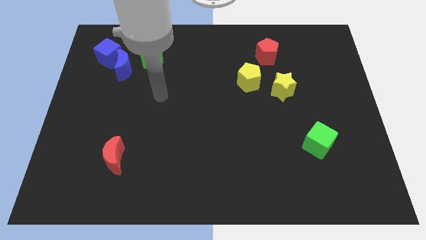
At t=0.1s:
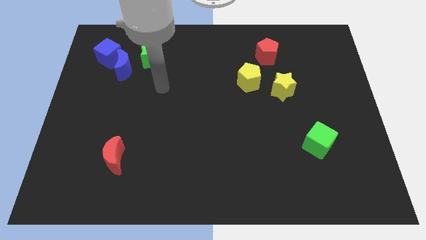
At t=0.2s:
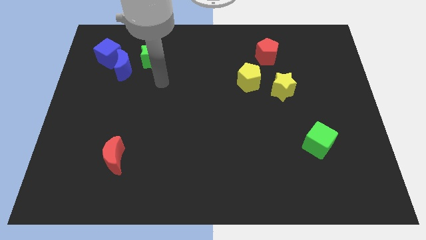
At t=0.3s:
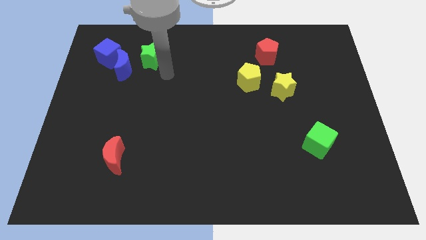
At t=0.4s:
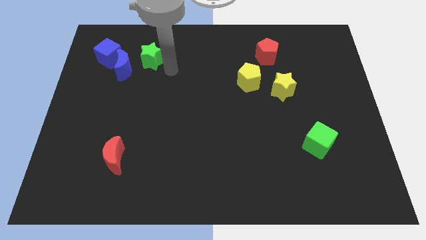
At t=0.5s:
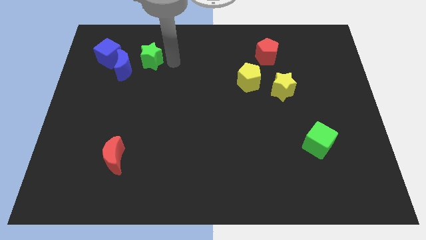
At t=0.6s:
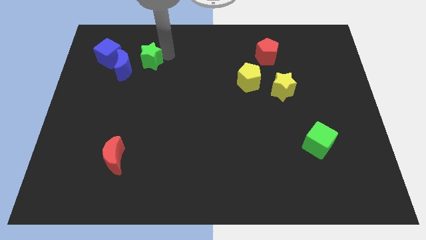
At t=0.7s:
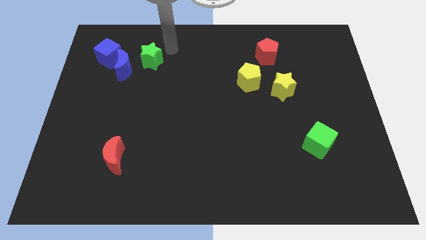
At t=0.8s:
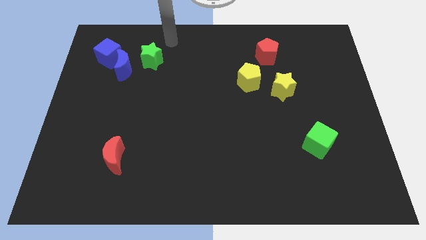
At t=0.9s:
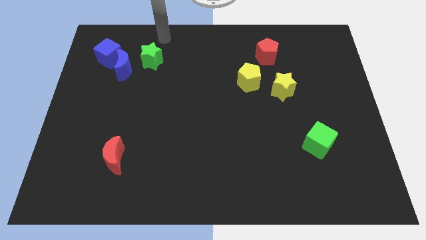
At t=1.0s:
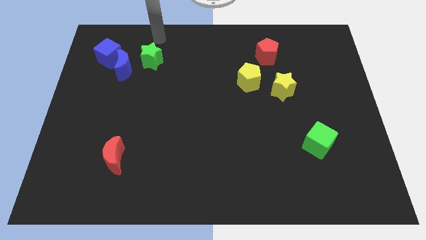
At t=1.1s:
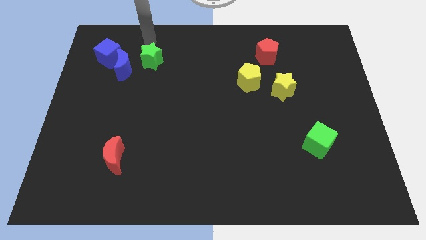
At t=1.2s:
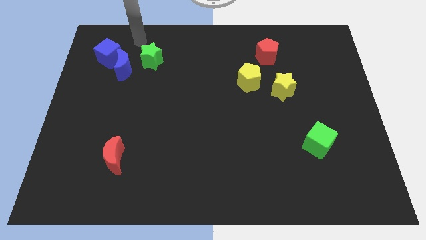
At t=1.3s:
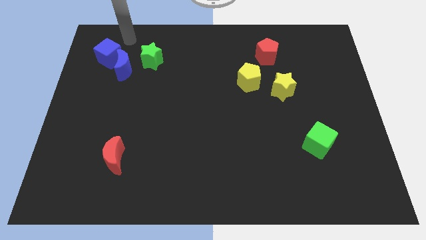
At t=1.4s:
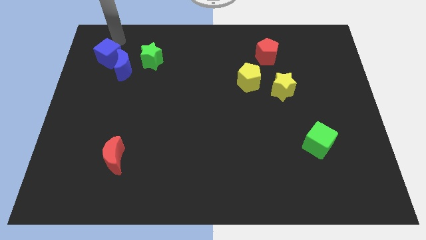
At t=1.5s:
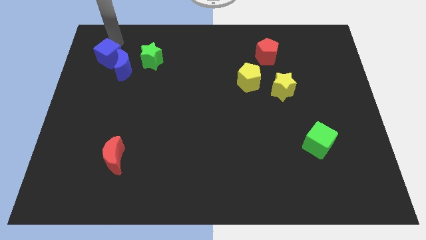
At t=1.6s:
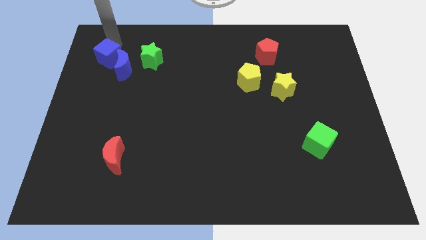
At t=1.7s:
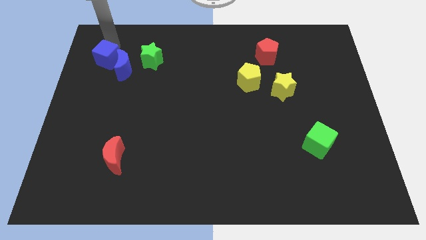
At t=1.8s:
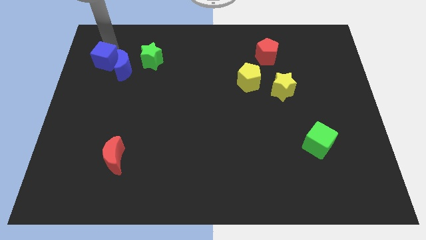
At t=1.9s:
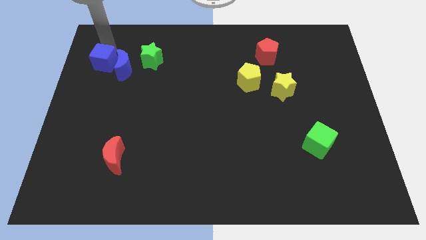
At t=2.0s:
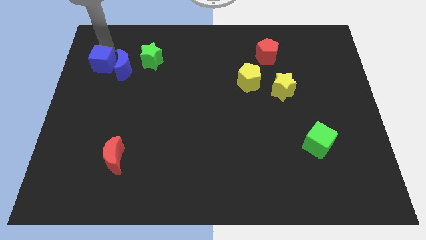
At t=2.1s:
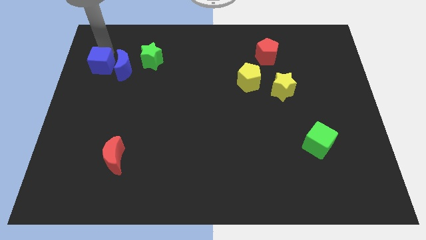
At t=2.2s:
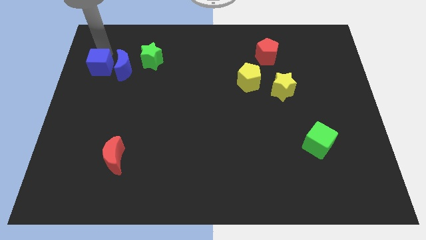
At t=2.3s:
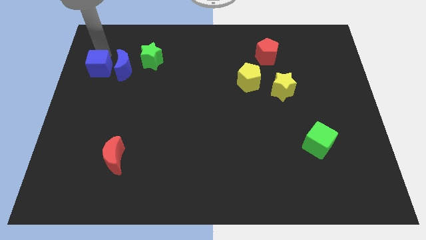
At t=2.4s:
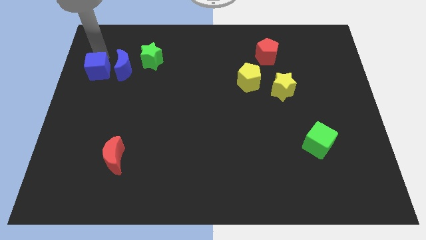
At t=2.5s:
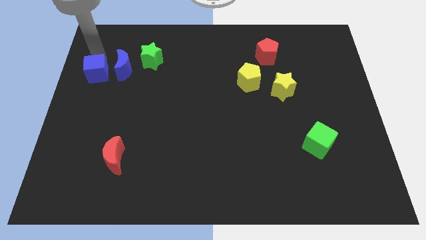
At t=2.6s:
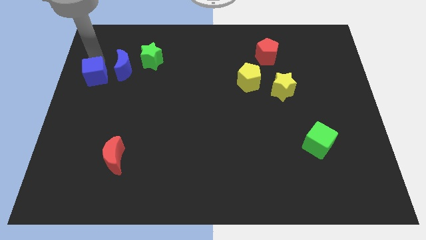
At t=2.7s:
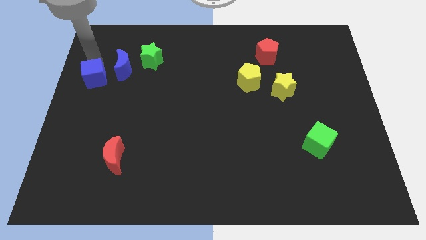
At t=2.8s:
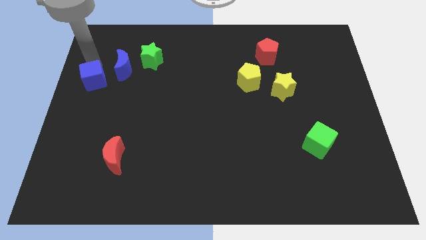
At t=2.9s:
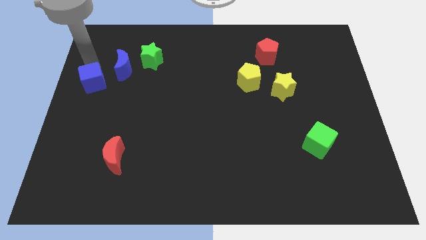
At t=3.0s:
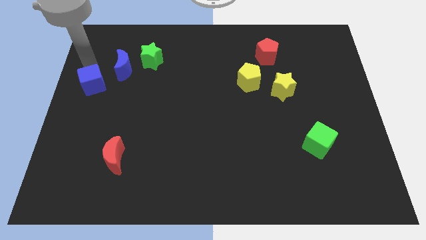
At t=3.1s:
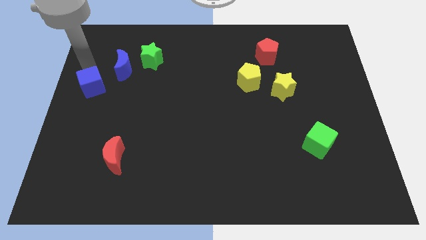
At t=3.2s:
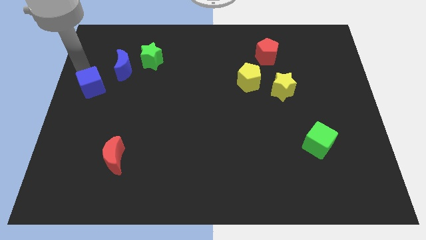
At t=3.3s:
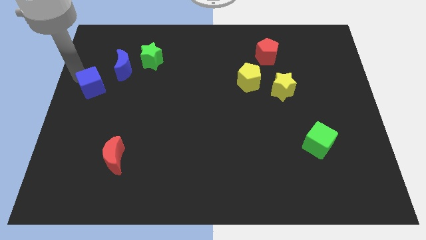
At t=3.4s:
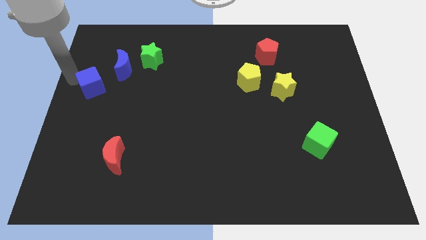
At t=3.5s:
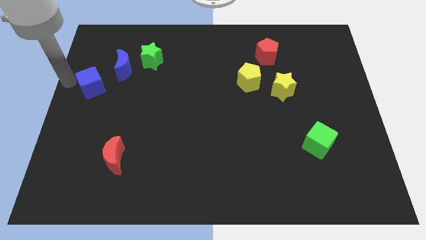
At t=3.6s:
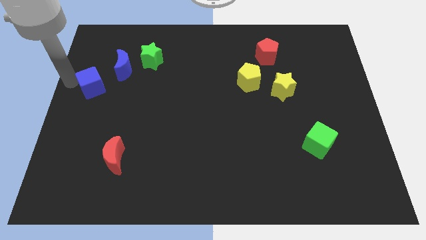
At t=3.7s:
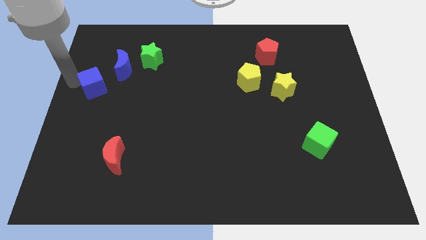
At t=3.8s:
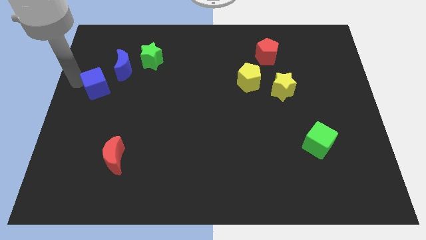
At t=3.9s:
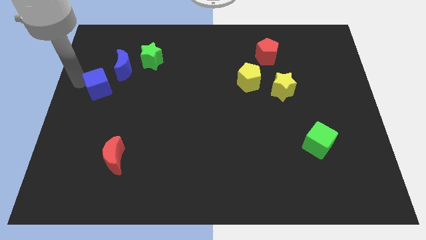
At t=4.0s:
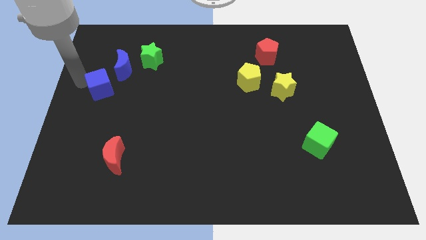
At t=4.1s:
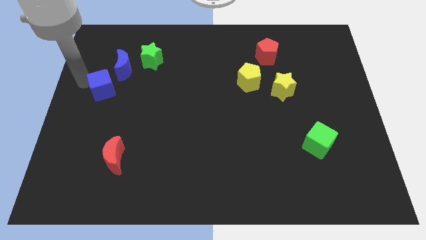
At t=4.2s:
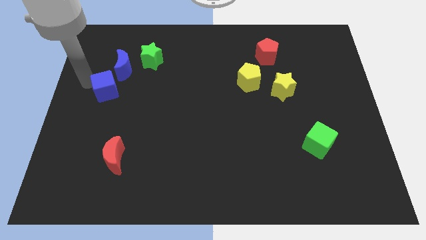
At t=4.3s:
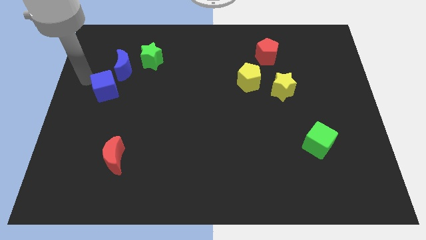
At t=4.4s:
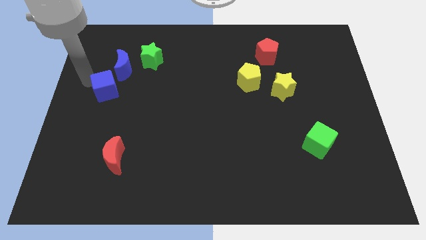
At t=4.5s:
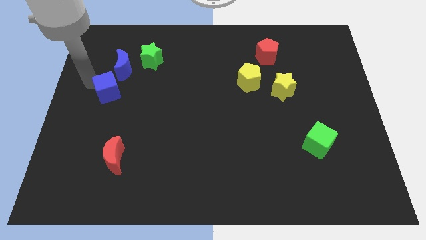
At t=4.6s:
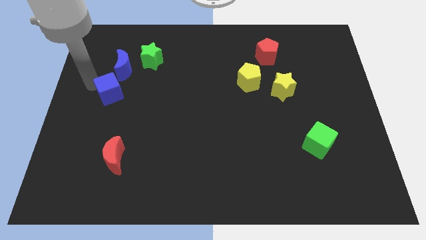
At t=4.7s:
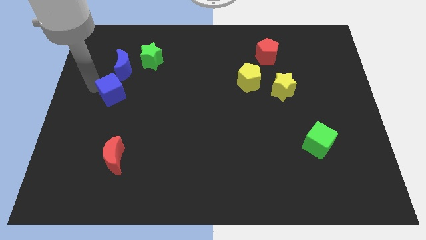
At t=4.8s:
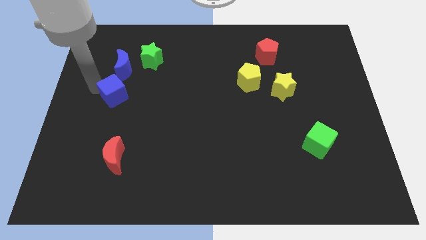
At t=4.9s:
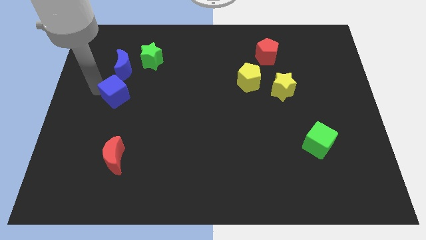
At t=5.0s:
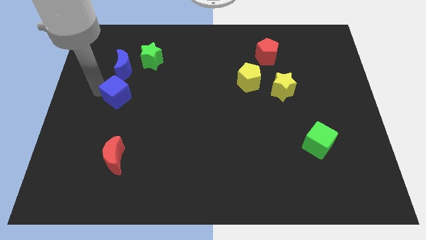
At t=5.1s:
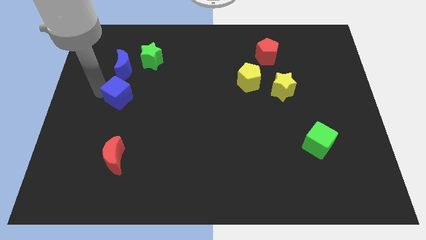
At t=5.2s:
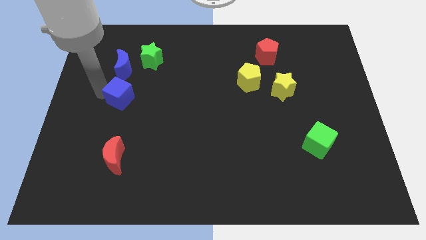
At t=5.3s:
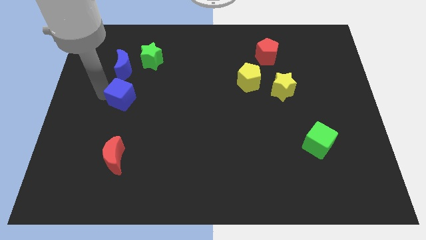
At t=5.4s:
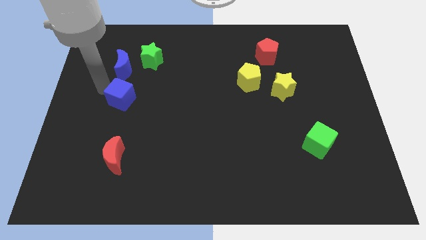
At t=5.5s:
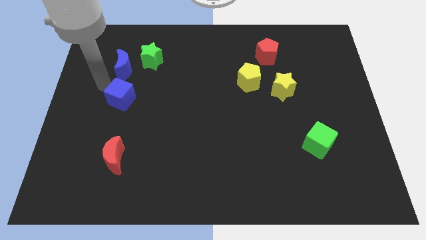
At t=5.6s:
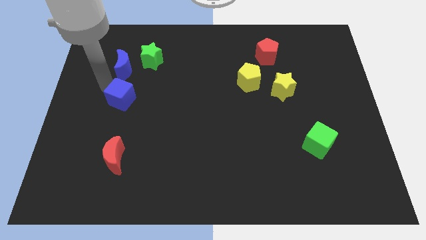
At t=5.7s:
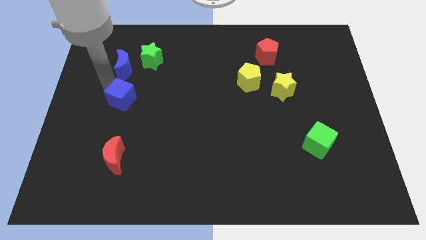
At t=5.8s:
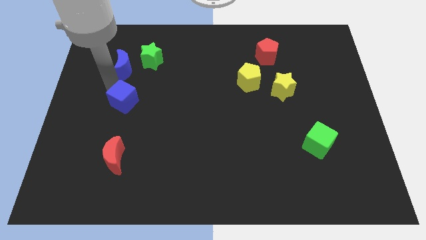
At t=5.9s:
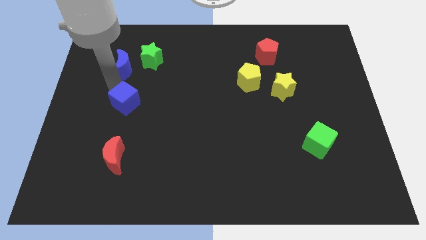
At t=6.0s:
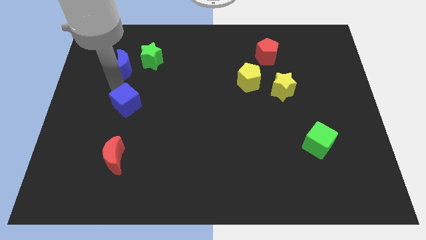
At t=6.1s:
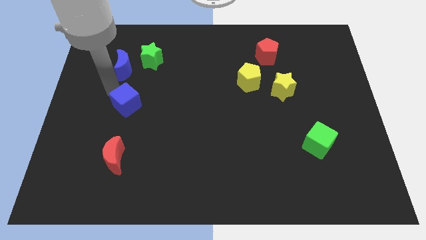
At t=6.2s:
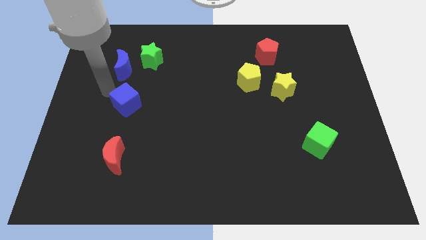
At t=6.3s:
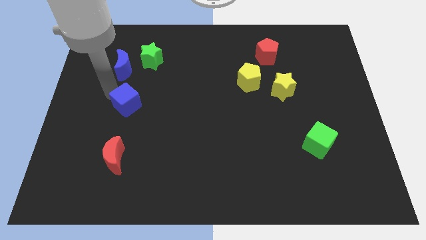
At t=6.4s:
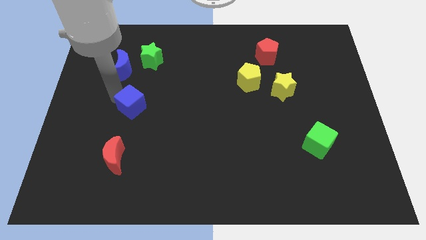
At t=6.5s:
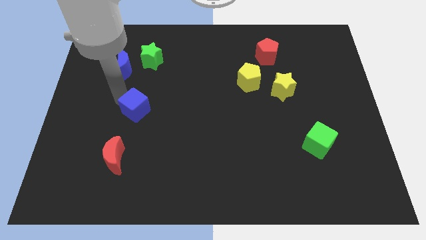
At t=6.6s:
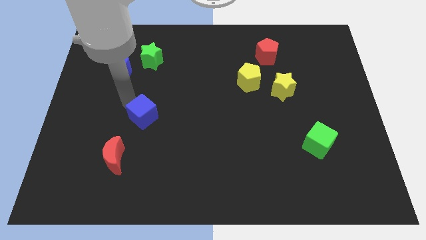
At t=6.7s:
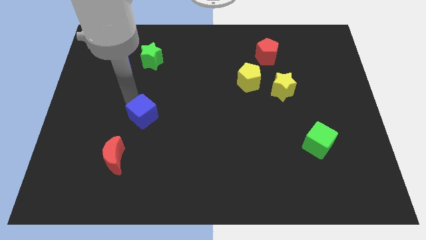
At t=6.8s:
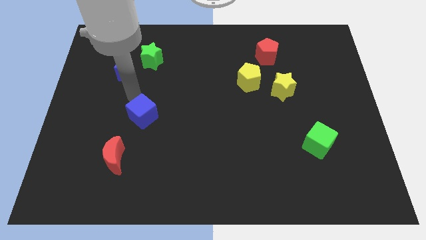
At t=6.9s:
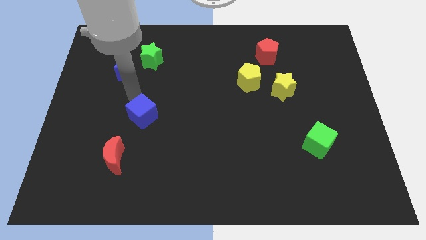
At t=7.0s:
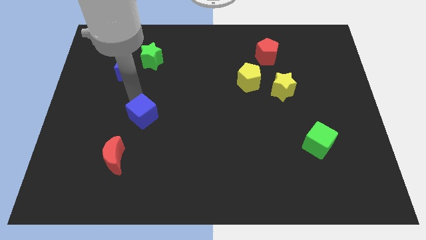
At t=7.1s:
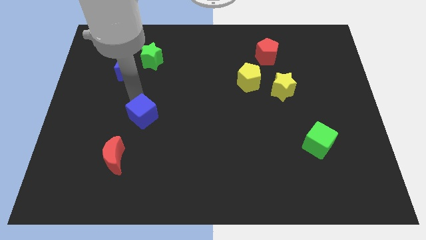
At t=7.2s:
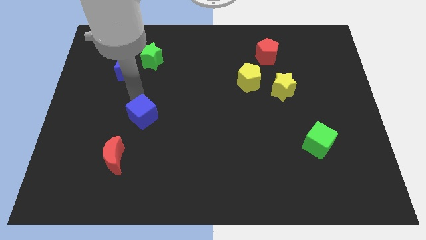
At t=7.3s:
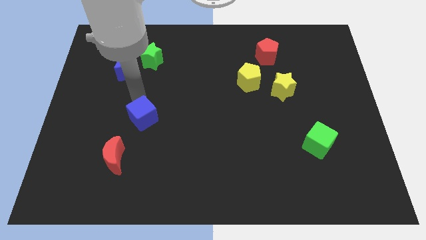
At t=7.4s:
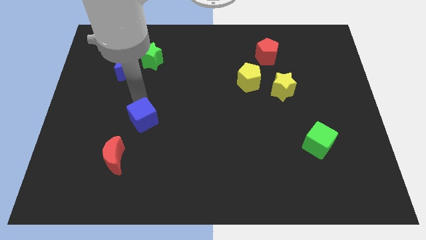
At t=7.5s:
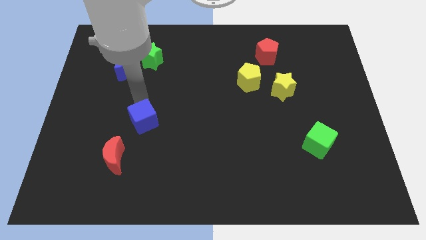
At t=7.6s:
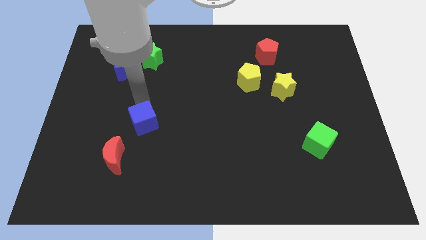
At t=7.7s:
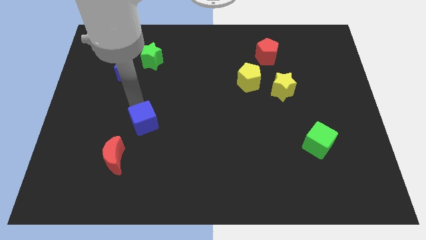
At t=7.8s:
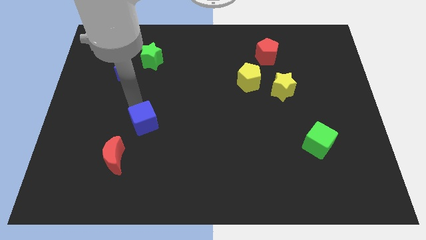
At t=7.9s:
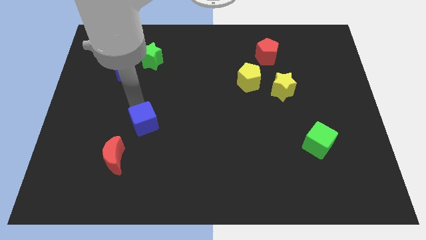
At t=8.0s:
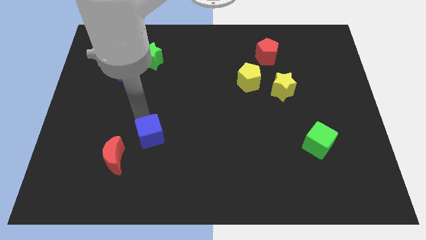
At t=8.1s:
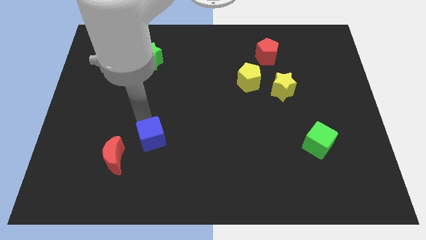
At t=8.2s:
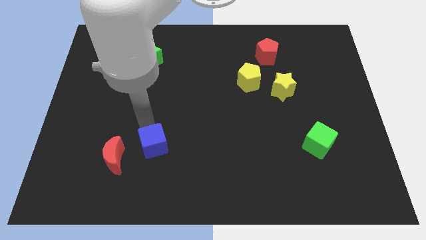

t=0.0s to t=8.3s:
slide the blue cube right of the red moon
